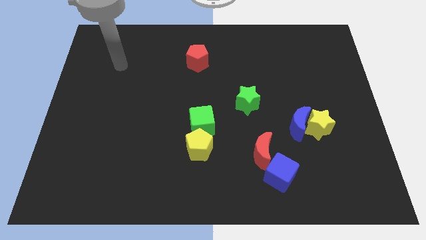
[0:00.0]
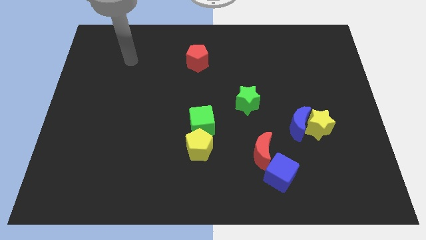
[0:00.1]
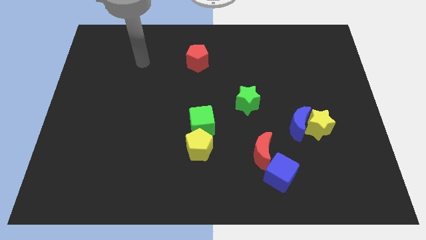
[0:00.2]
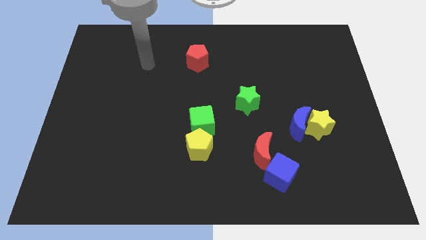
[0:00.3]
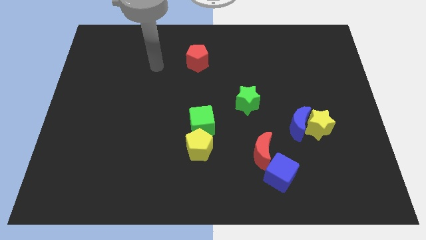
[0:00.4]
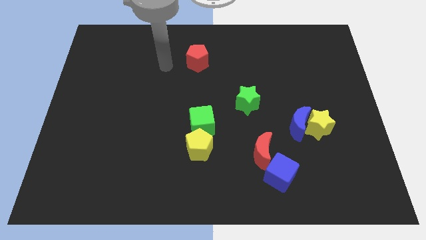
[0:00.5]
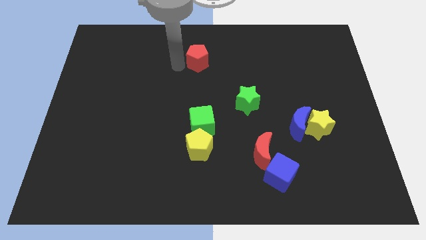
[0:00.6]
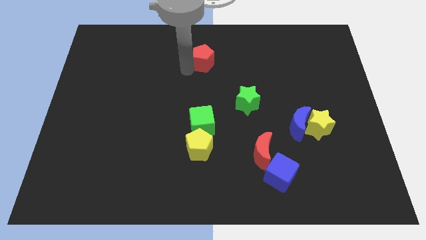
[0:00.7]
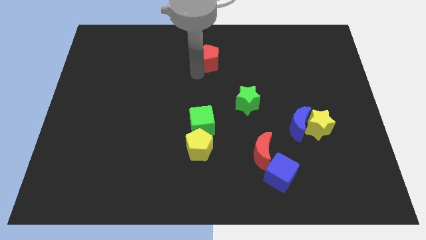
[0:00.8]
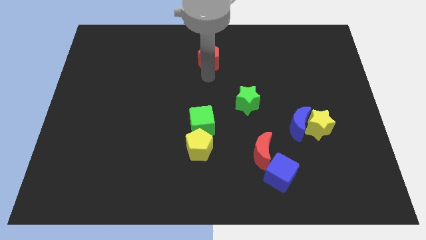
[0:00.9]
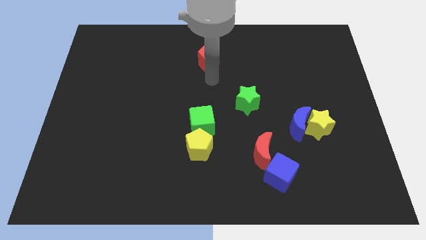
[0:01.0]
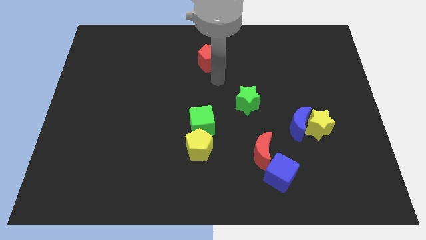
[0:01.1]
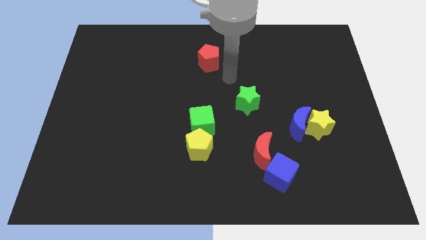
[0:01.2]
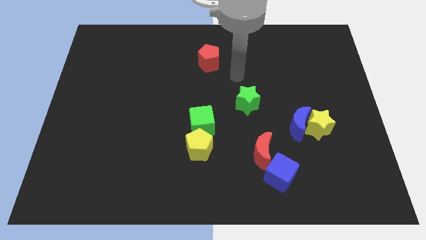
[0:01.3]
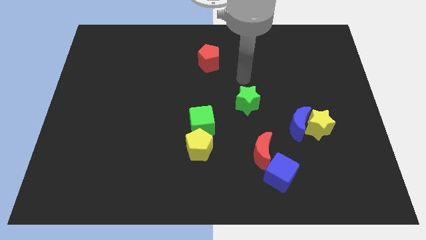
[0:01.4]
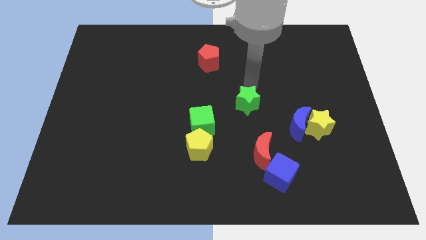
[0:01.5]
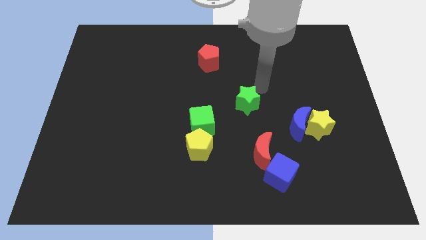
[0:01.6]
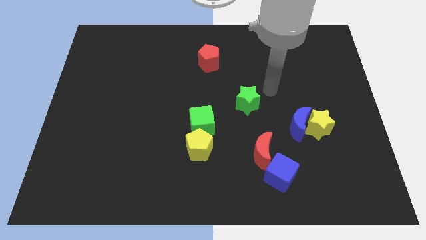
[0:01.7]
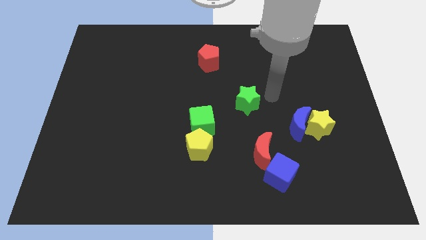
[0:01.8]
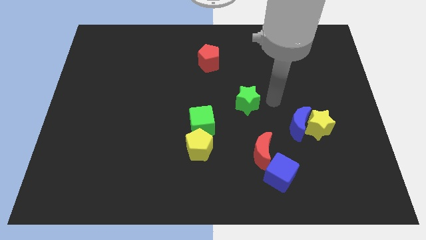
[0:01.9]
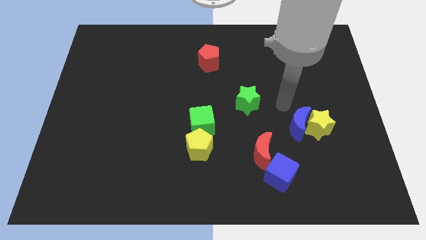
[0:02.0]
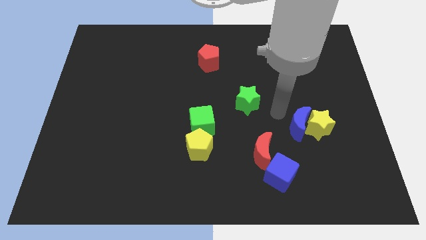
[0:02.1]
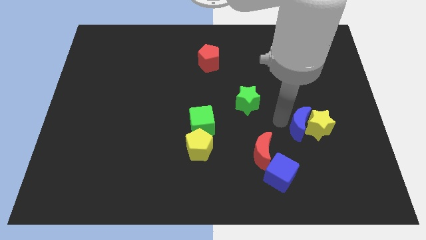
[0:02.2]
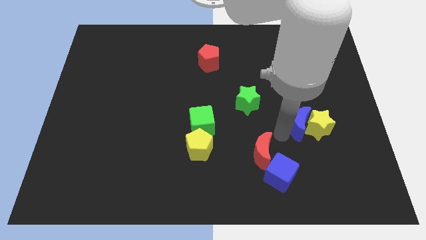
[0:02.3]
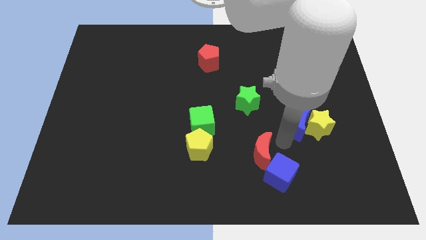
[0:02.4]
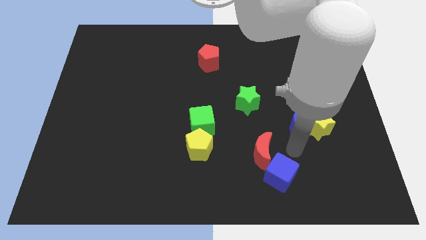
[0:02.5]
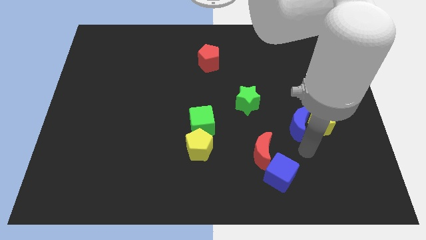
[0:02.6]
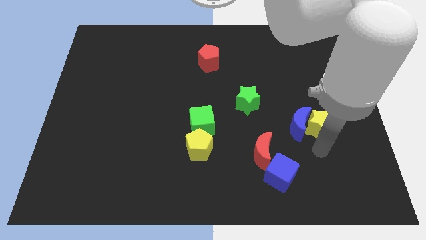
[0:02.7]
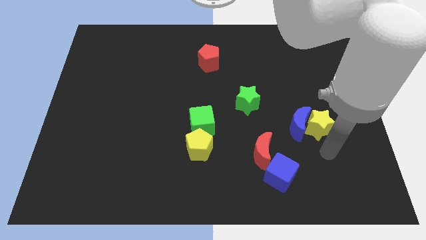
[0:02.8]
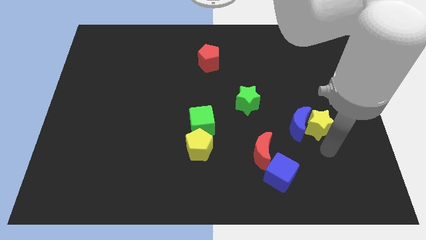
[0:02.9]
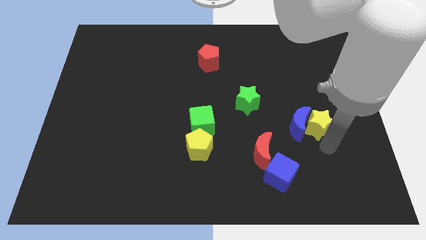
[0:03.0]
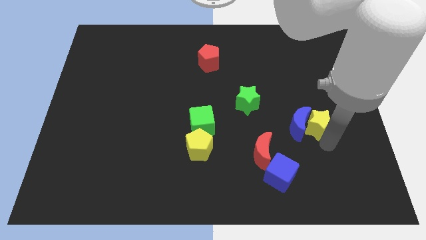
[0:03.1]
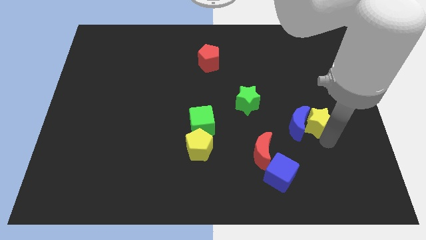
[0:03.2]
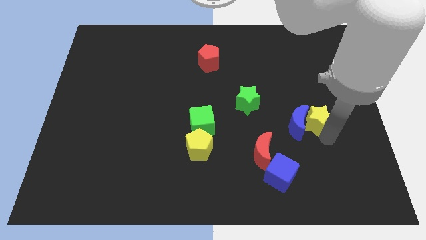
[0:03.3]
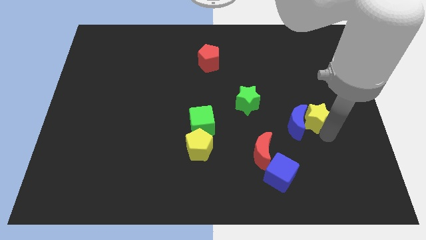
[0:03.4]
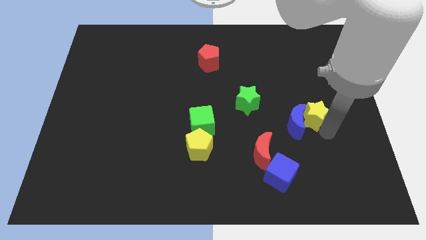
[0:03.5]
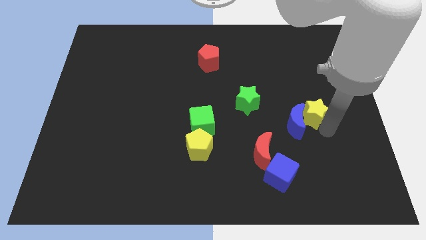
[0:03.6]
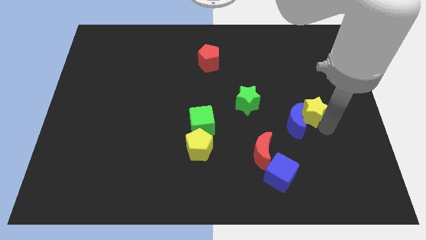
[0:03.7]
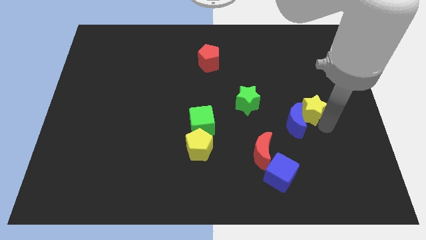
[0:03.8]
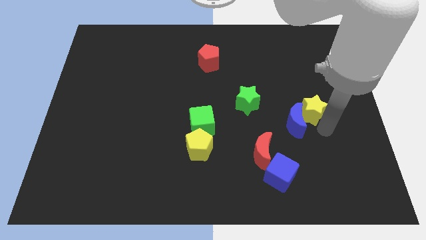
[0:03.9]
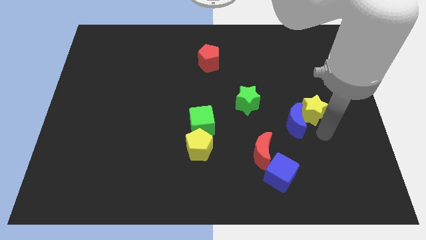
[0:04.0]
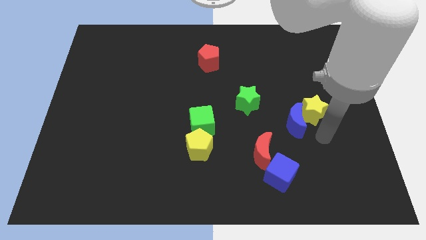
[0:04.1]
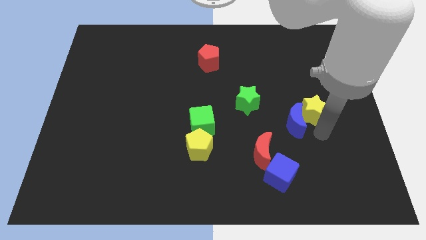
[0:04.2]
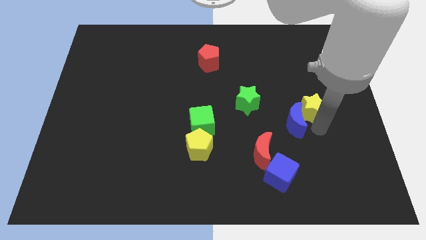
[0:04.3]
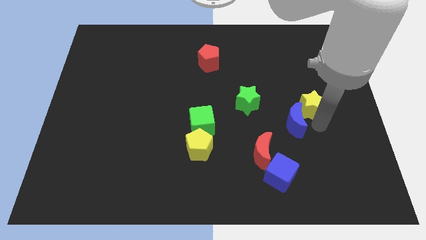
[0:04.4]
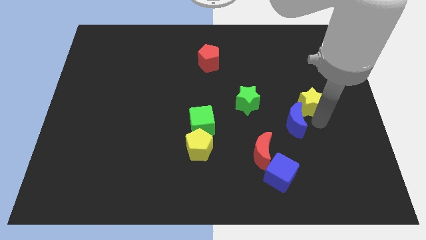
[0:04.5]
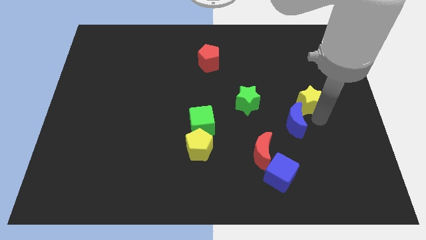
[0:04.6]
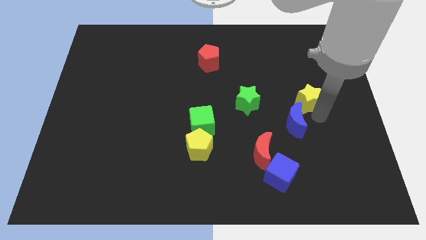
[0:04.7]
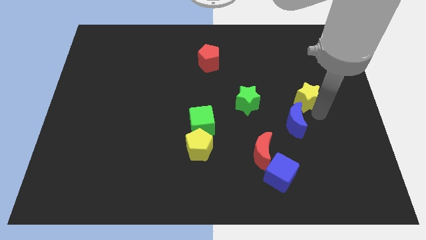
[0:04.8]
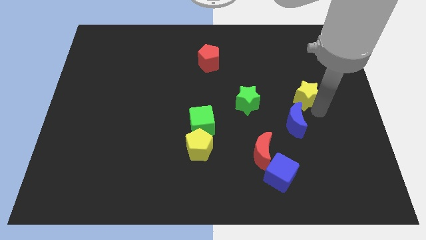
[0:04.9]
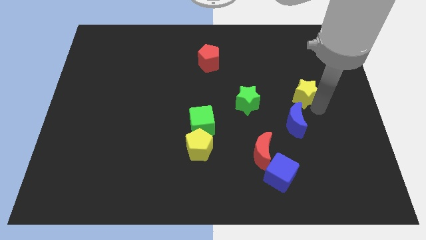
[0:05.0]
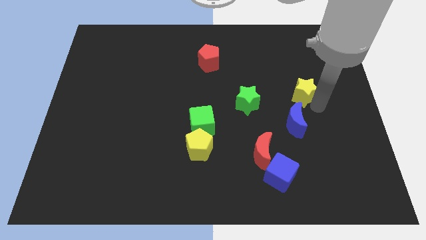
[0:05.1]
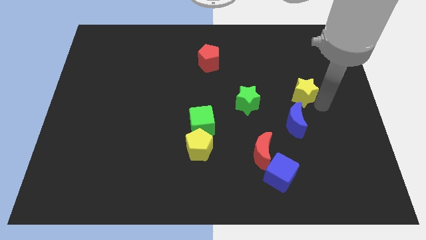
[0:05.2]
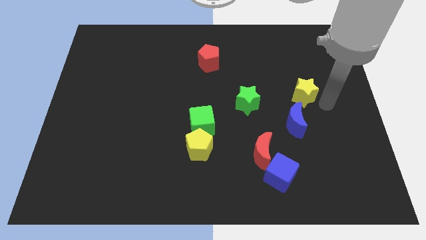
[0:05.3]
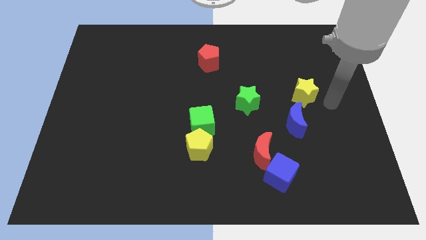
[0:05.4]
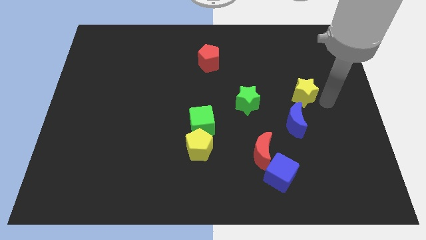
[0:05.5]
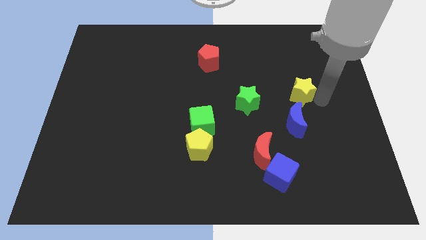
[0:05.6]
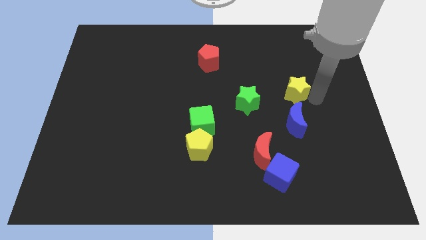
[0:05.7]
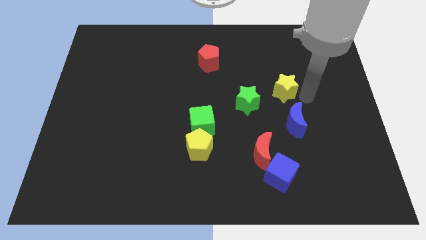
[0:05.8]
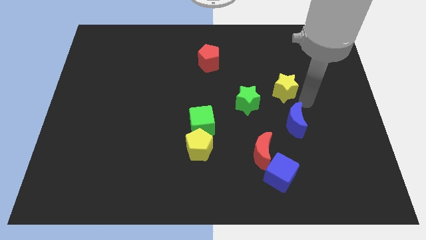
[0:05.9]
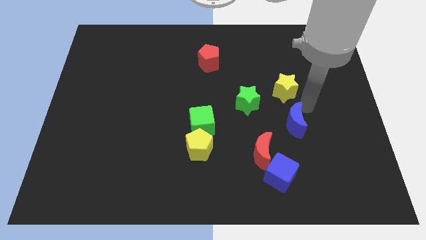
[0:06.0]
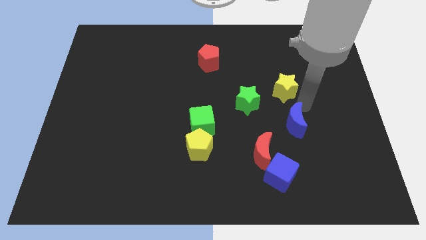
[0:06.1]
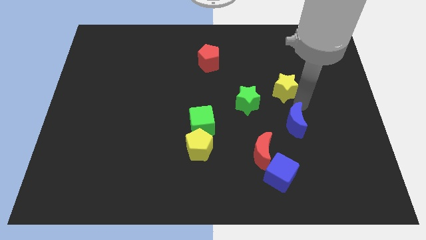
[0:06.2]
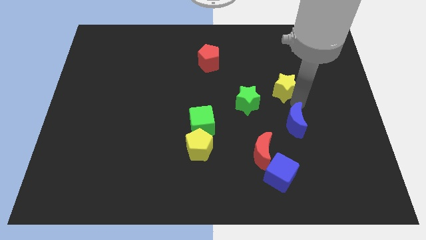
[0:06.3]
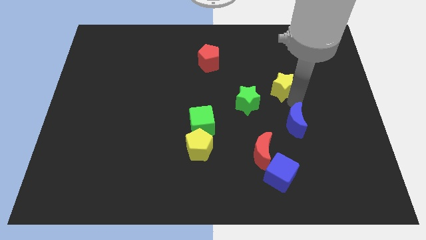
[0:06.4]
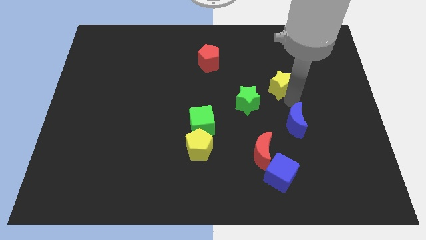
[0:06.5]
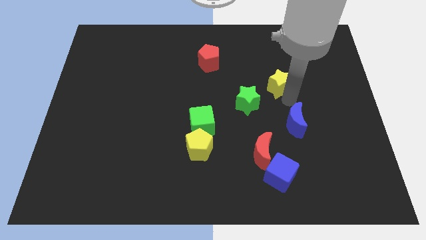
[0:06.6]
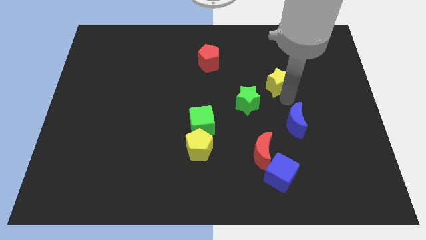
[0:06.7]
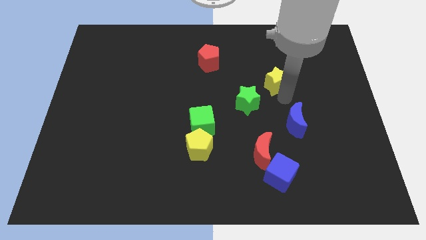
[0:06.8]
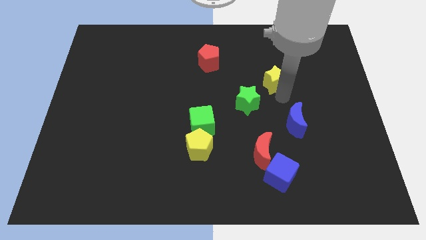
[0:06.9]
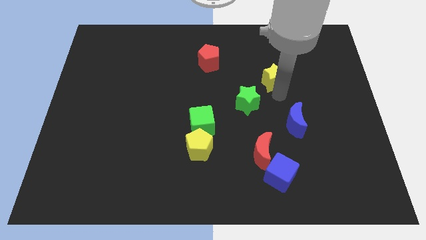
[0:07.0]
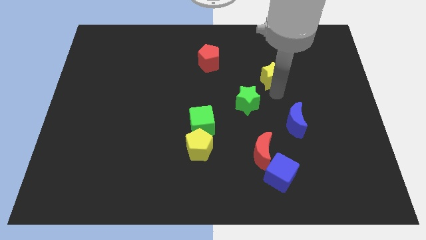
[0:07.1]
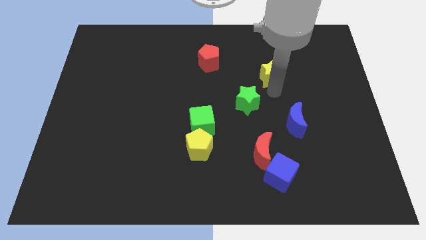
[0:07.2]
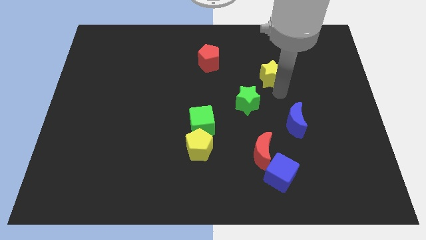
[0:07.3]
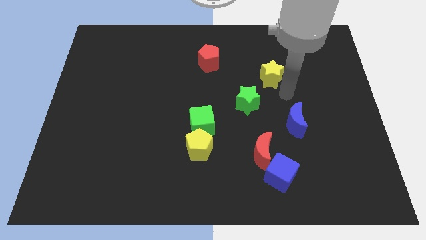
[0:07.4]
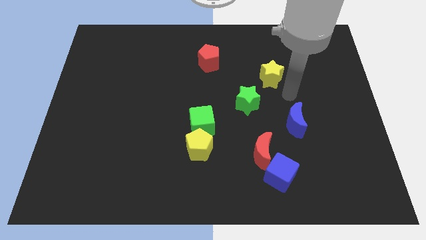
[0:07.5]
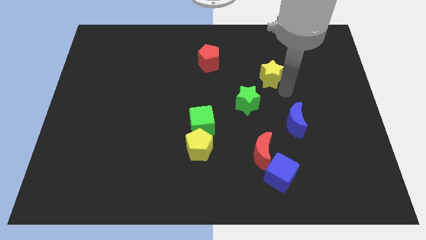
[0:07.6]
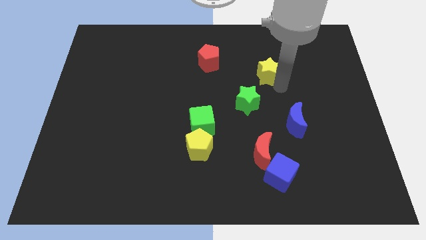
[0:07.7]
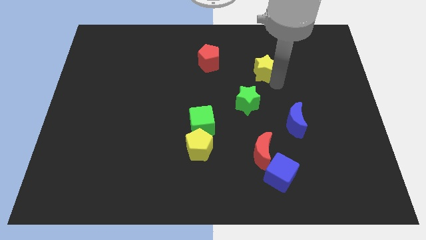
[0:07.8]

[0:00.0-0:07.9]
slide the yellow star right of the red pentagon
